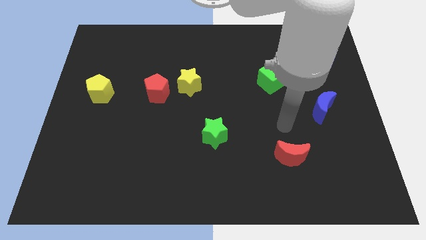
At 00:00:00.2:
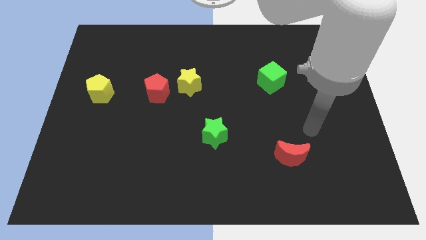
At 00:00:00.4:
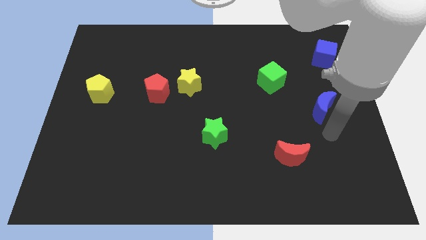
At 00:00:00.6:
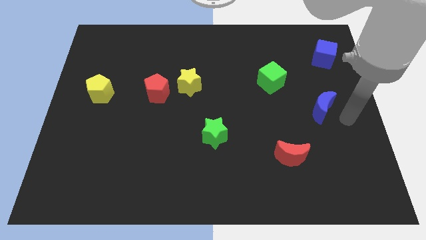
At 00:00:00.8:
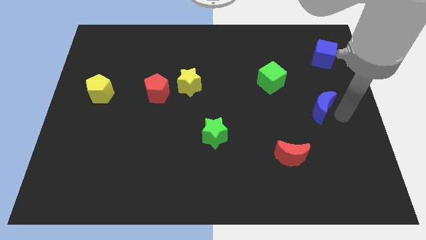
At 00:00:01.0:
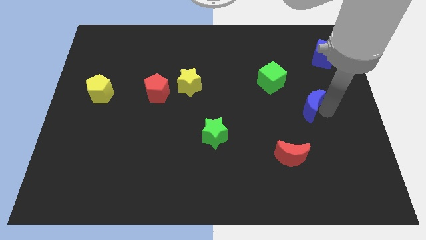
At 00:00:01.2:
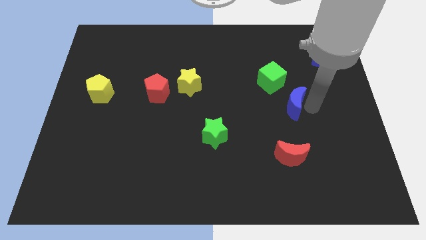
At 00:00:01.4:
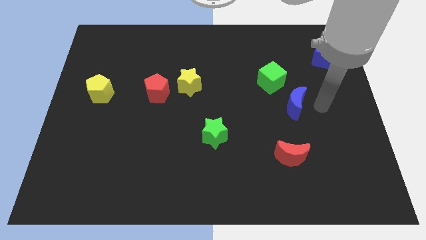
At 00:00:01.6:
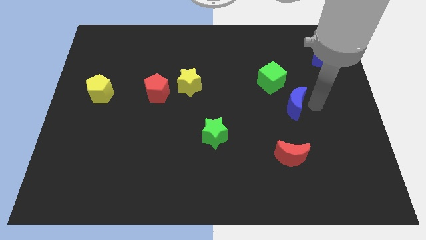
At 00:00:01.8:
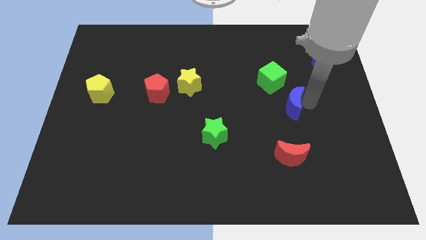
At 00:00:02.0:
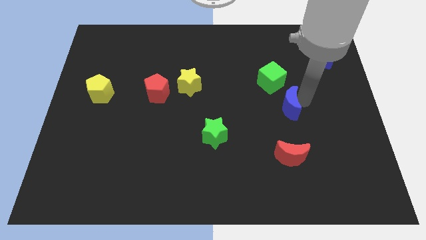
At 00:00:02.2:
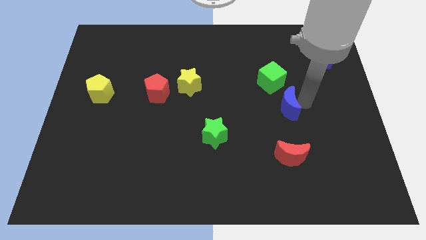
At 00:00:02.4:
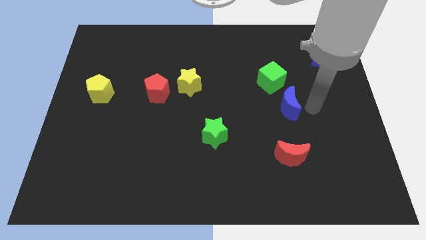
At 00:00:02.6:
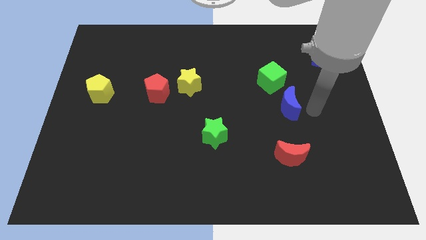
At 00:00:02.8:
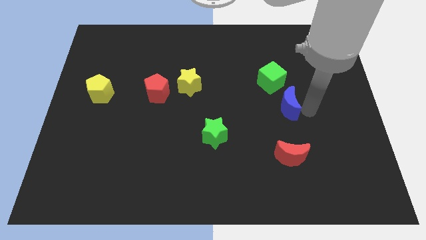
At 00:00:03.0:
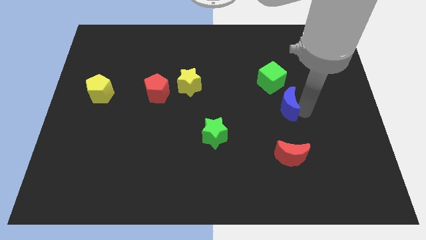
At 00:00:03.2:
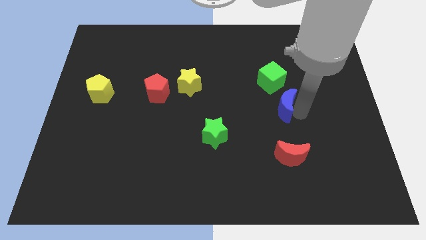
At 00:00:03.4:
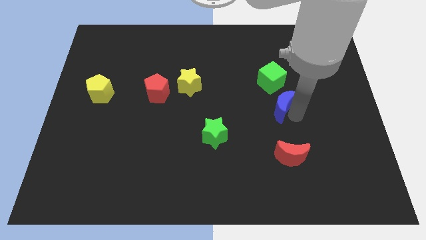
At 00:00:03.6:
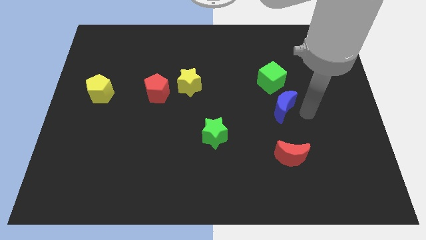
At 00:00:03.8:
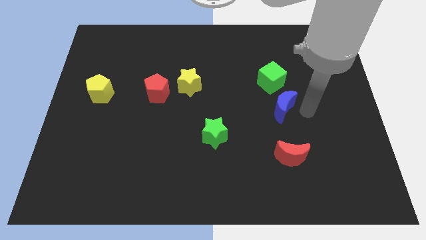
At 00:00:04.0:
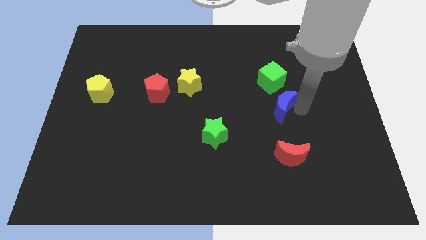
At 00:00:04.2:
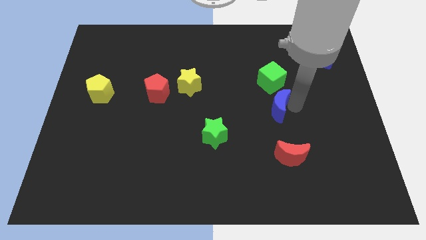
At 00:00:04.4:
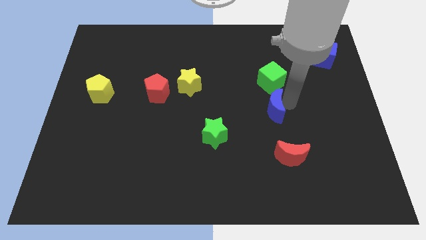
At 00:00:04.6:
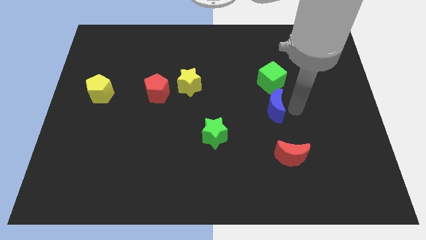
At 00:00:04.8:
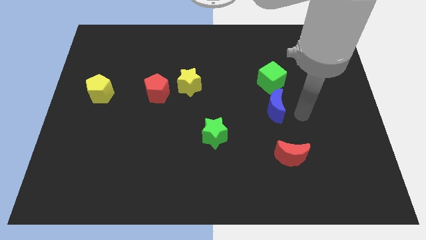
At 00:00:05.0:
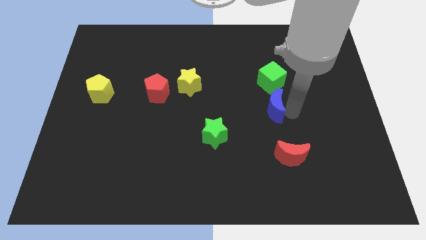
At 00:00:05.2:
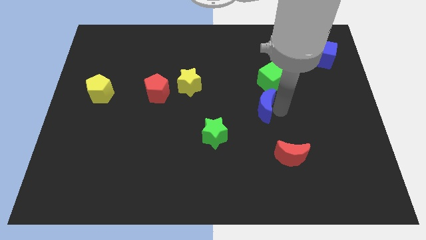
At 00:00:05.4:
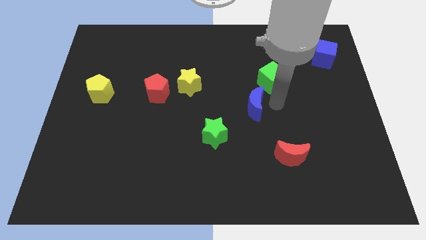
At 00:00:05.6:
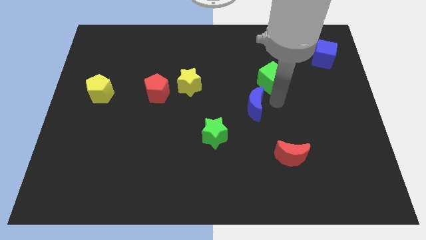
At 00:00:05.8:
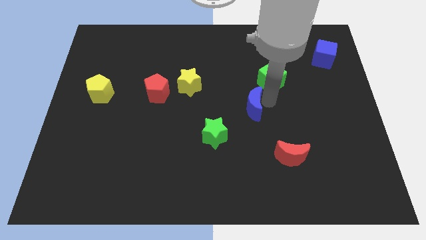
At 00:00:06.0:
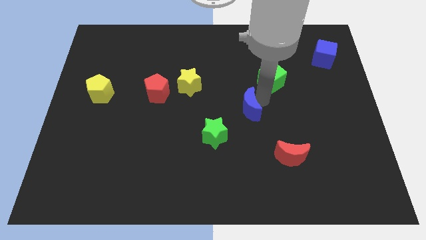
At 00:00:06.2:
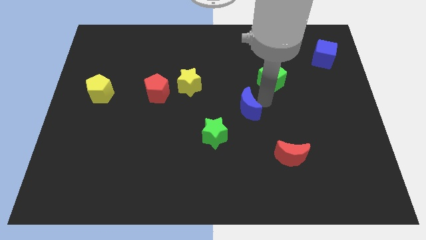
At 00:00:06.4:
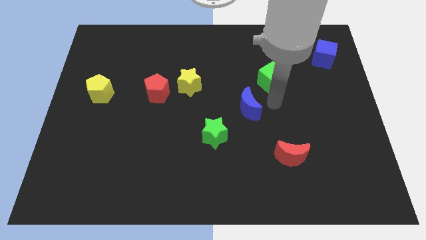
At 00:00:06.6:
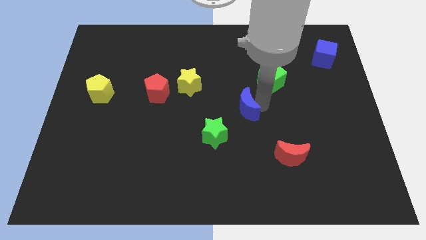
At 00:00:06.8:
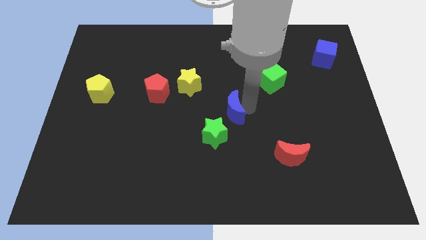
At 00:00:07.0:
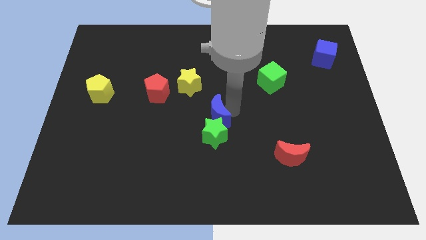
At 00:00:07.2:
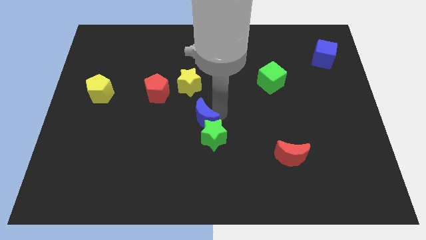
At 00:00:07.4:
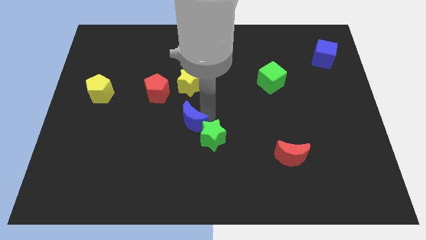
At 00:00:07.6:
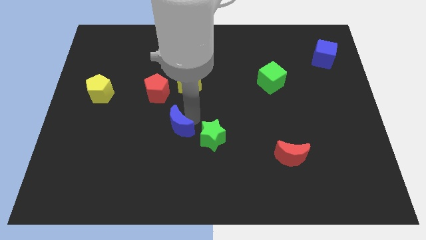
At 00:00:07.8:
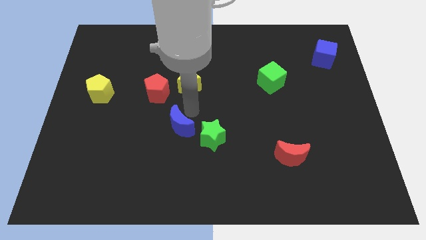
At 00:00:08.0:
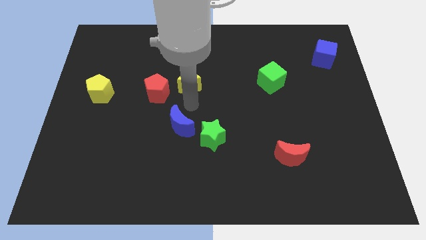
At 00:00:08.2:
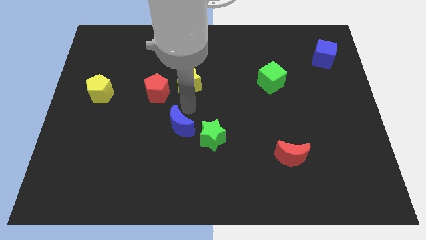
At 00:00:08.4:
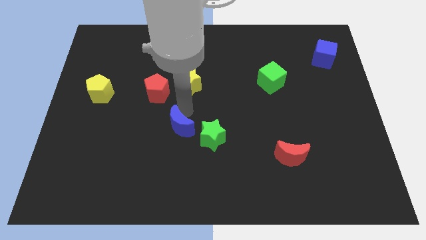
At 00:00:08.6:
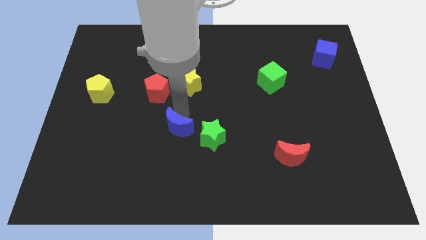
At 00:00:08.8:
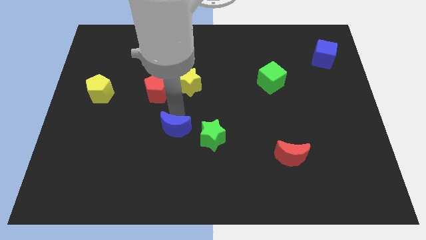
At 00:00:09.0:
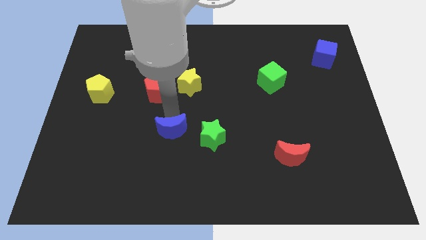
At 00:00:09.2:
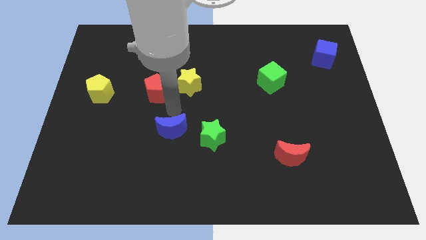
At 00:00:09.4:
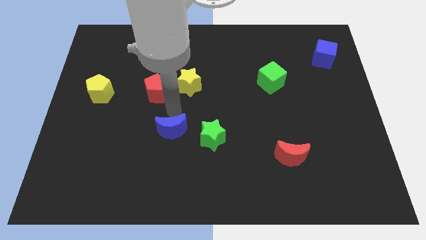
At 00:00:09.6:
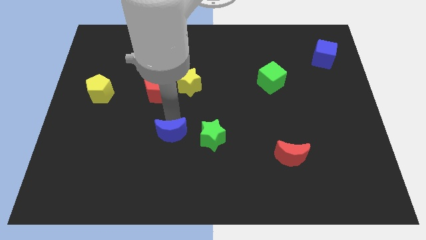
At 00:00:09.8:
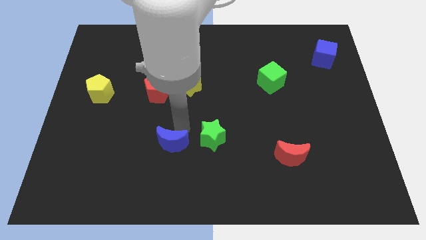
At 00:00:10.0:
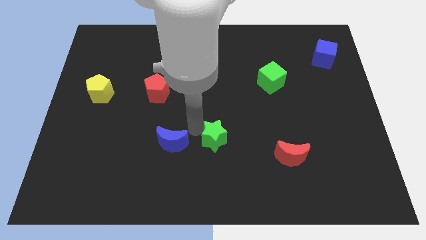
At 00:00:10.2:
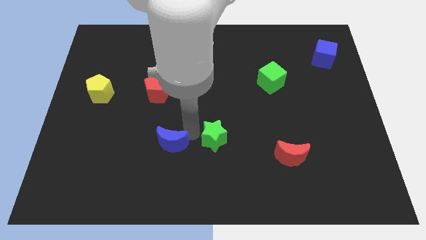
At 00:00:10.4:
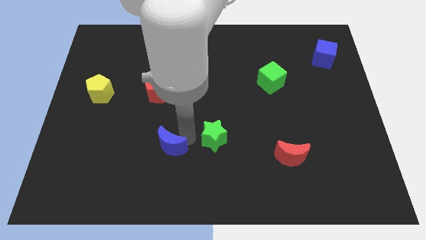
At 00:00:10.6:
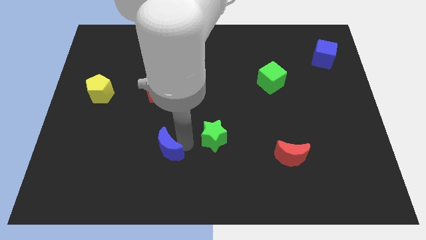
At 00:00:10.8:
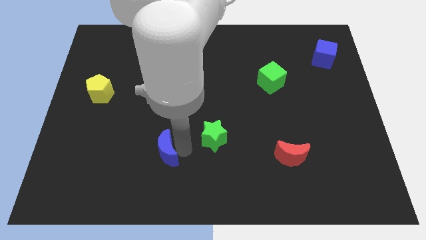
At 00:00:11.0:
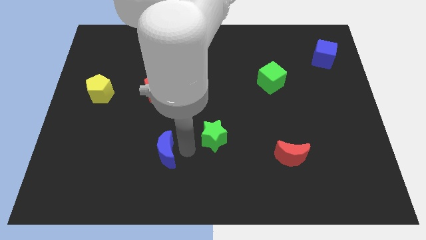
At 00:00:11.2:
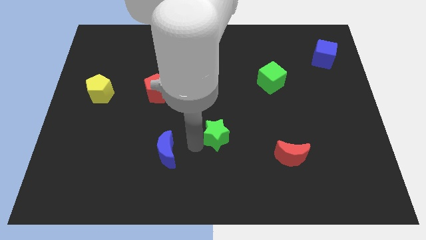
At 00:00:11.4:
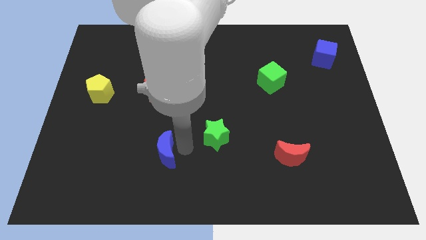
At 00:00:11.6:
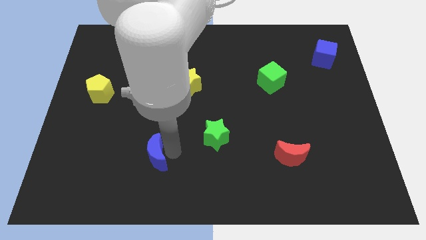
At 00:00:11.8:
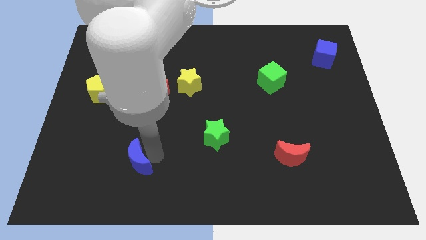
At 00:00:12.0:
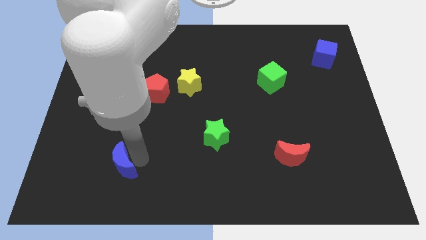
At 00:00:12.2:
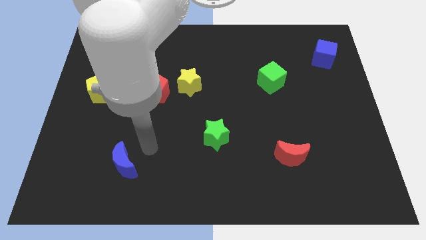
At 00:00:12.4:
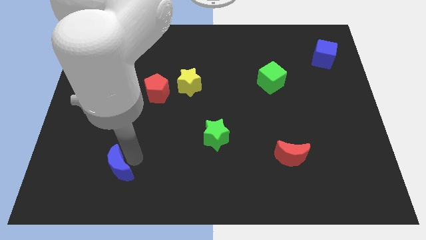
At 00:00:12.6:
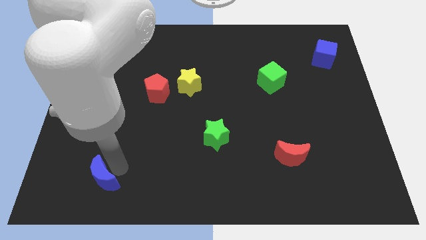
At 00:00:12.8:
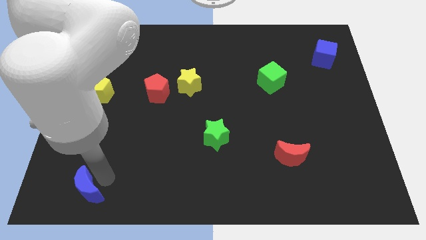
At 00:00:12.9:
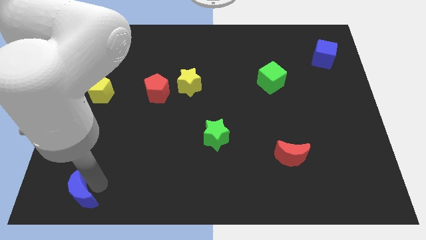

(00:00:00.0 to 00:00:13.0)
push the blue moon to the lower left corner
